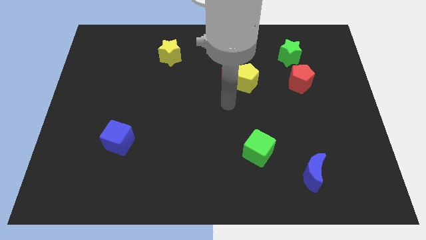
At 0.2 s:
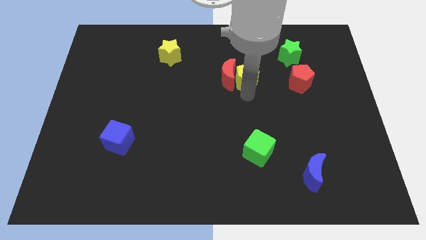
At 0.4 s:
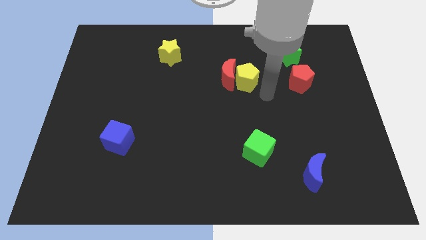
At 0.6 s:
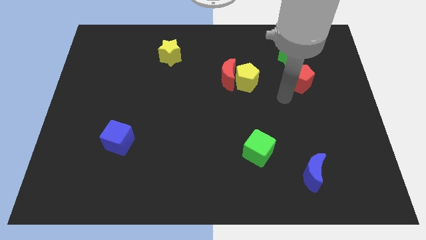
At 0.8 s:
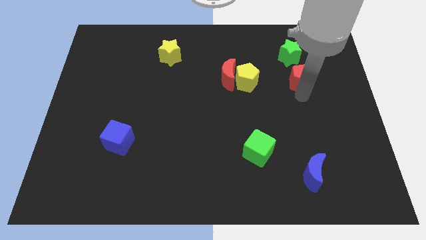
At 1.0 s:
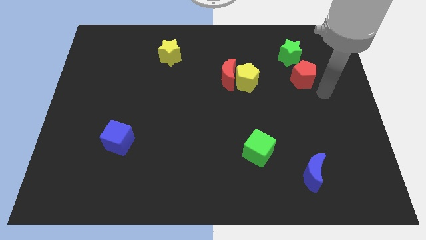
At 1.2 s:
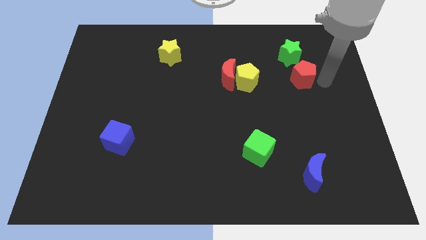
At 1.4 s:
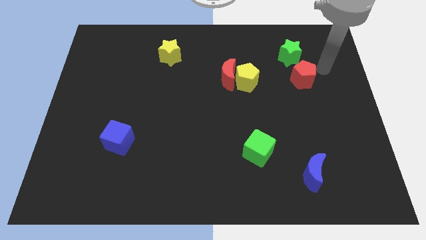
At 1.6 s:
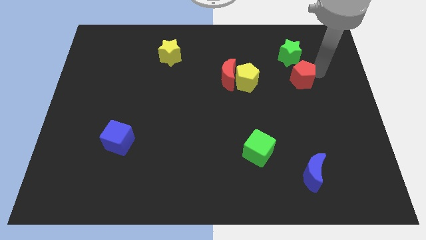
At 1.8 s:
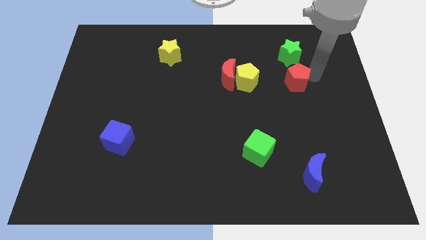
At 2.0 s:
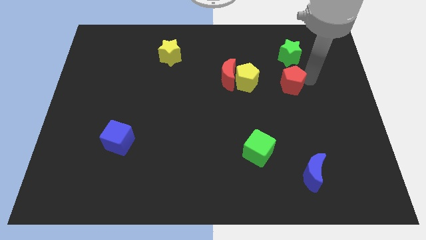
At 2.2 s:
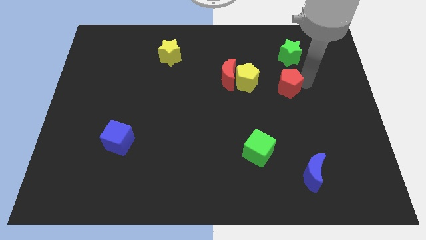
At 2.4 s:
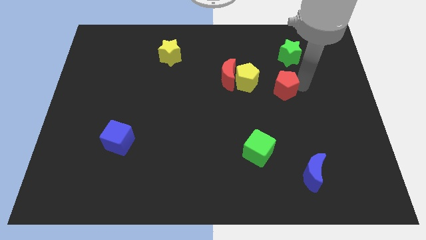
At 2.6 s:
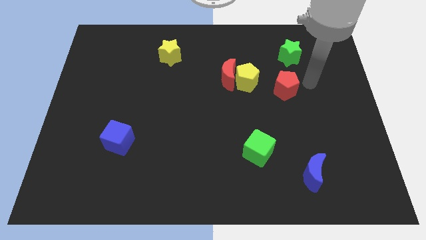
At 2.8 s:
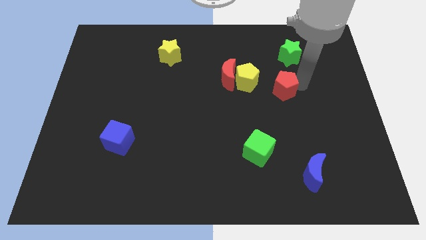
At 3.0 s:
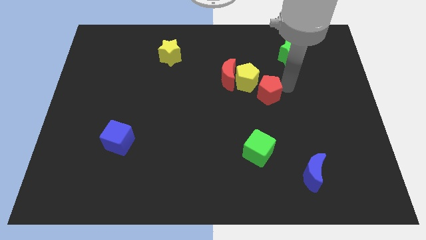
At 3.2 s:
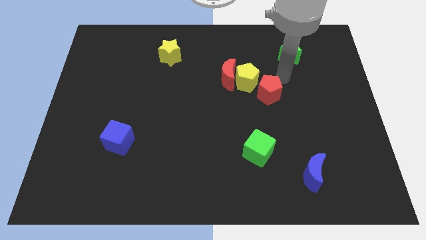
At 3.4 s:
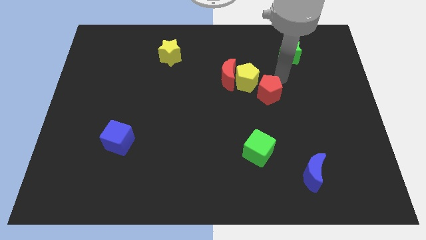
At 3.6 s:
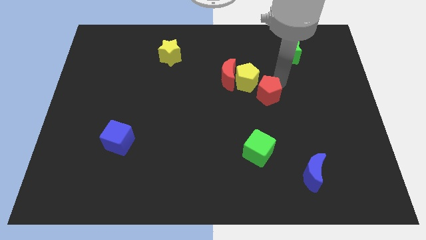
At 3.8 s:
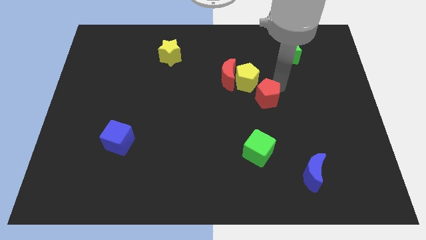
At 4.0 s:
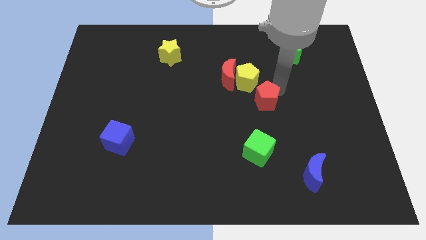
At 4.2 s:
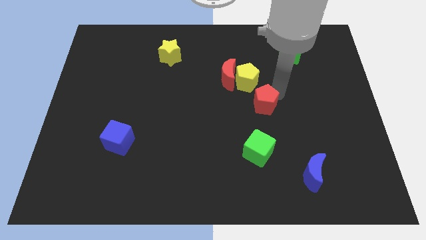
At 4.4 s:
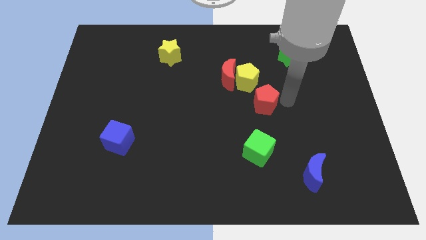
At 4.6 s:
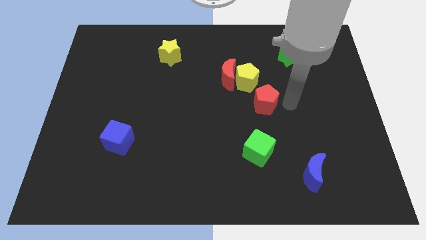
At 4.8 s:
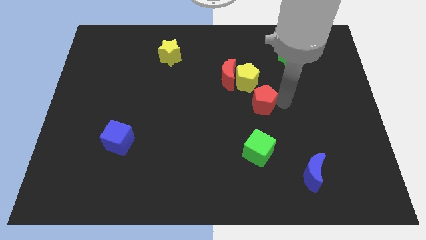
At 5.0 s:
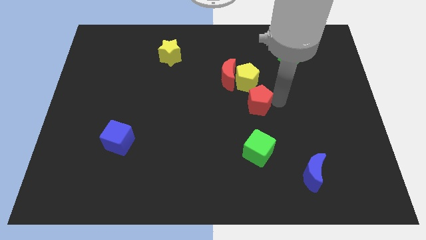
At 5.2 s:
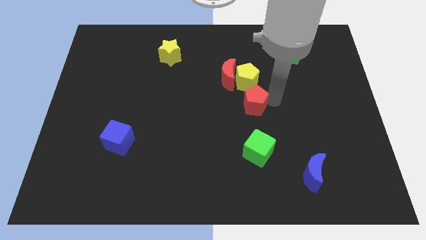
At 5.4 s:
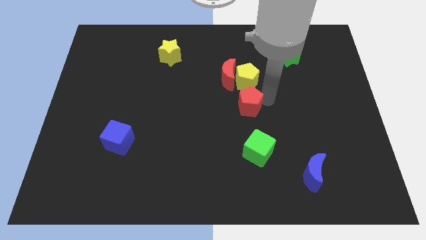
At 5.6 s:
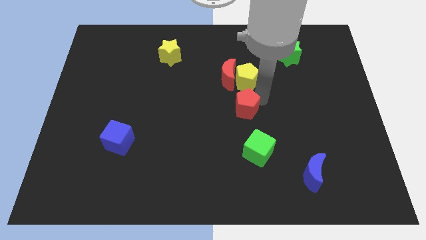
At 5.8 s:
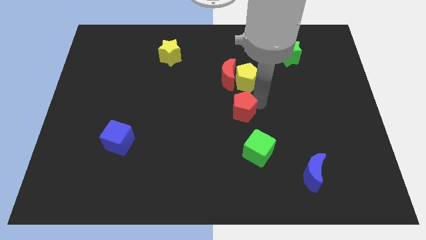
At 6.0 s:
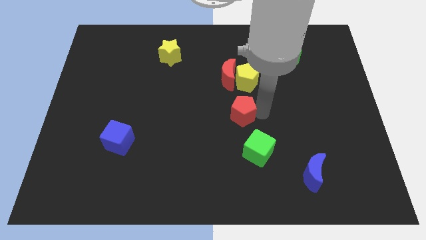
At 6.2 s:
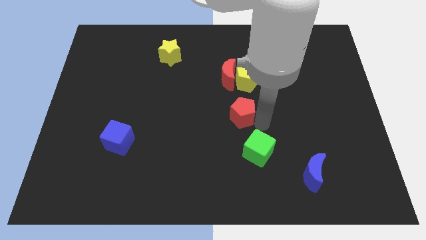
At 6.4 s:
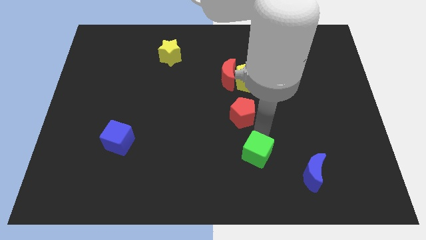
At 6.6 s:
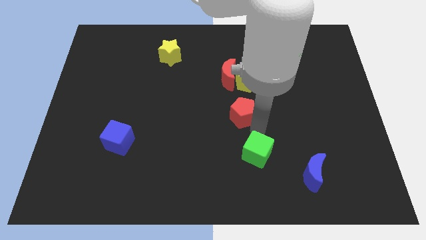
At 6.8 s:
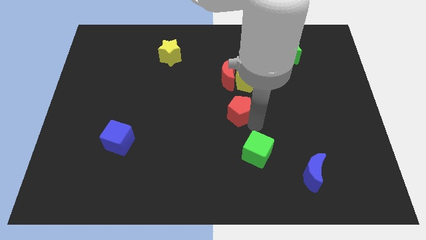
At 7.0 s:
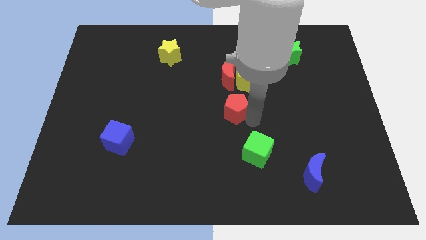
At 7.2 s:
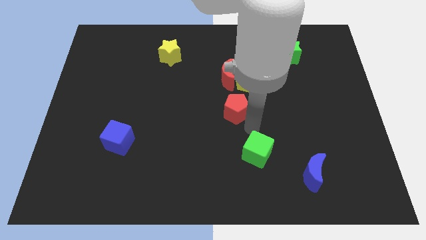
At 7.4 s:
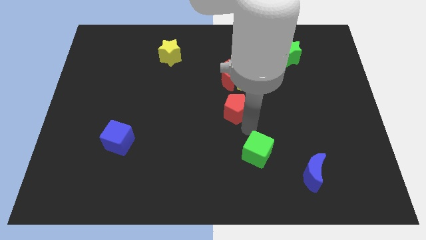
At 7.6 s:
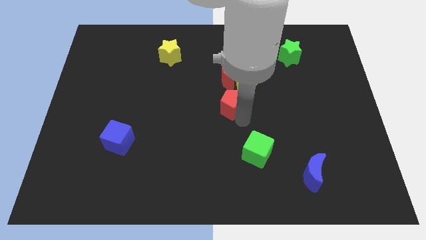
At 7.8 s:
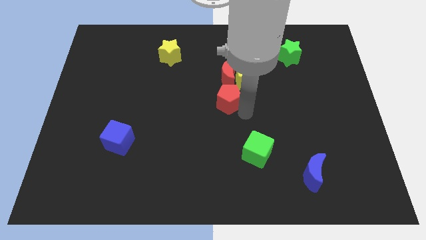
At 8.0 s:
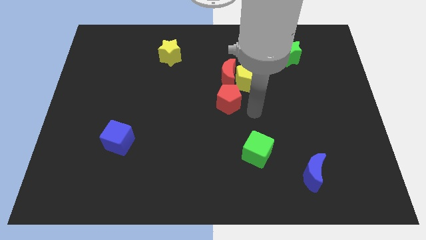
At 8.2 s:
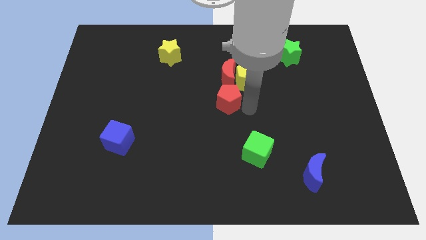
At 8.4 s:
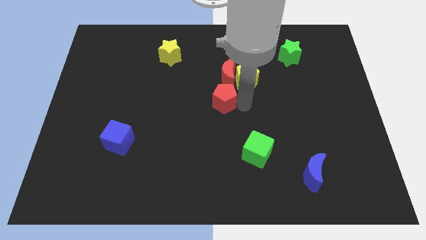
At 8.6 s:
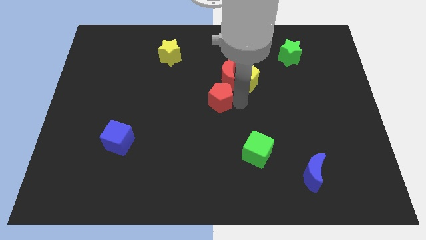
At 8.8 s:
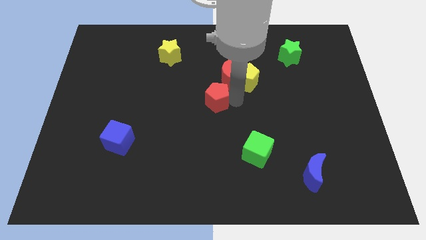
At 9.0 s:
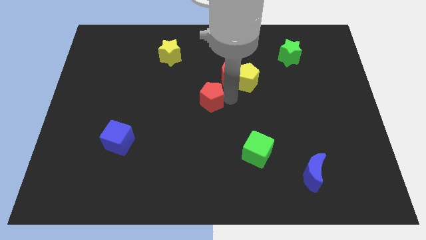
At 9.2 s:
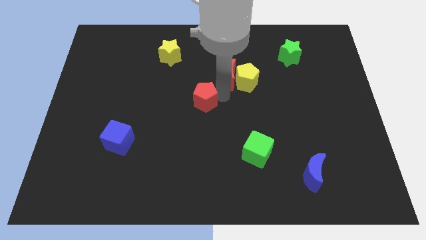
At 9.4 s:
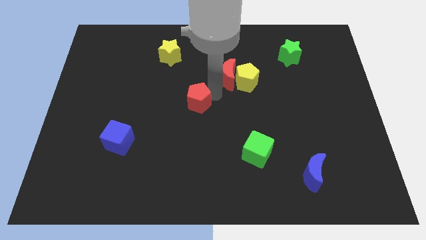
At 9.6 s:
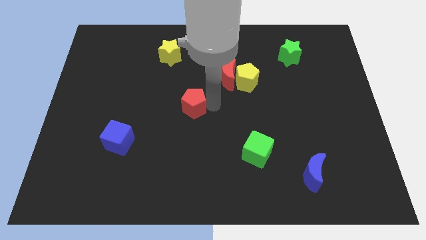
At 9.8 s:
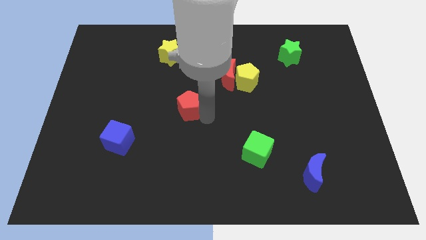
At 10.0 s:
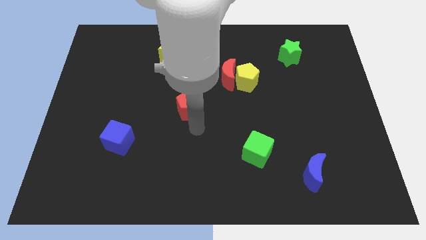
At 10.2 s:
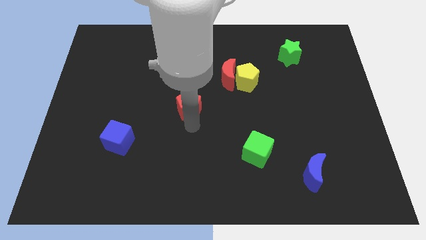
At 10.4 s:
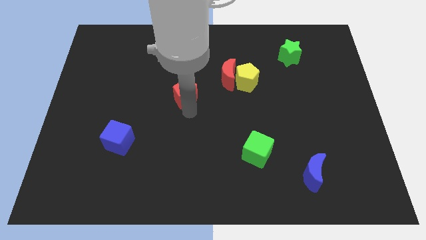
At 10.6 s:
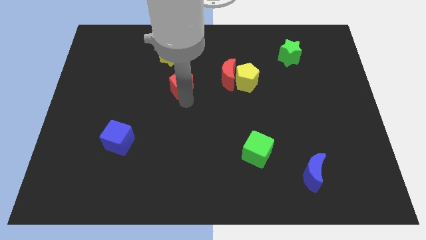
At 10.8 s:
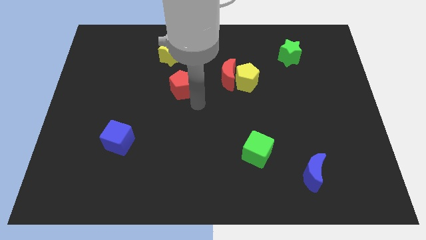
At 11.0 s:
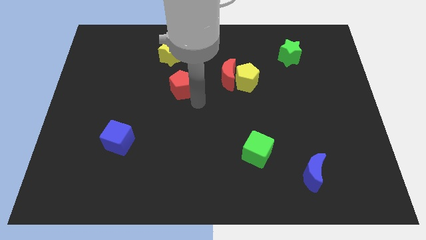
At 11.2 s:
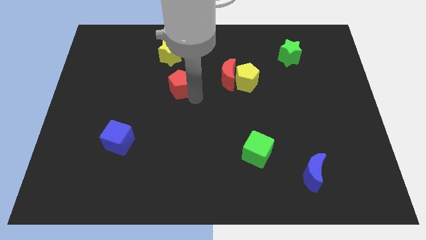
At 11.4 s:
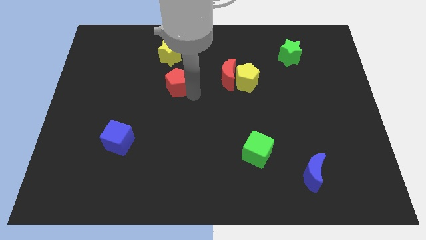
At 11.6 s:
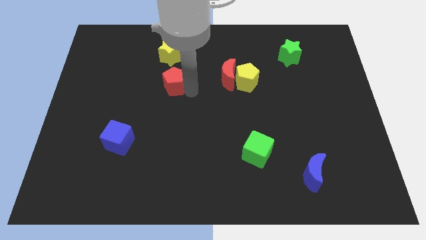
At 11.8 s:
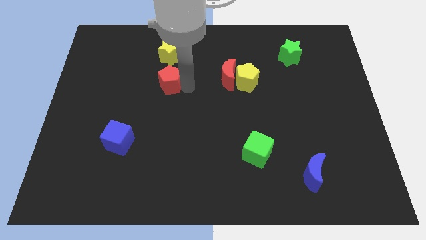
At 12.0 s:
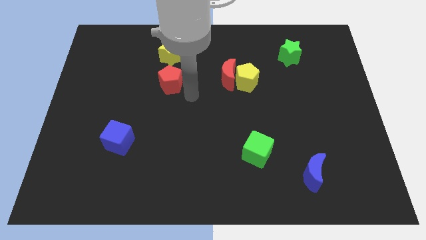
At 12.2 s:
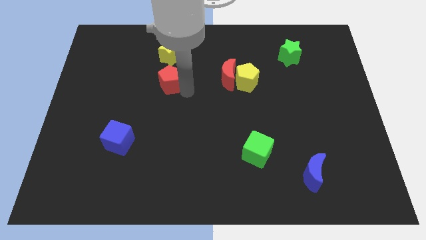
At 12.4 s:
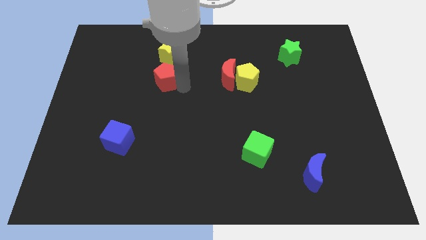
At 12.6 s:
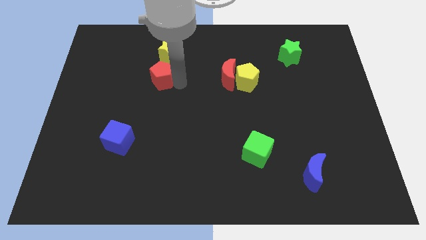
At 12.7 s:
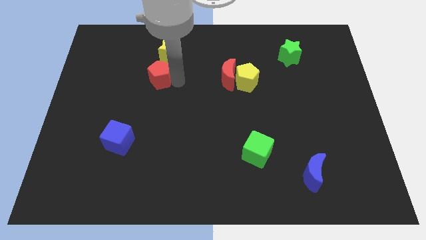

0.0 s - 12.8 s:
slide the red pentagon to the bottom left of the yellow star

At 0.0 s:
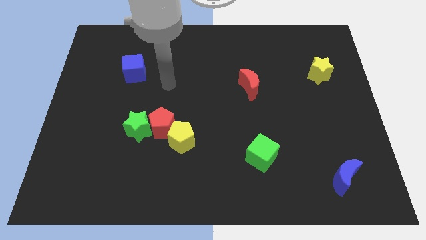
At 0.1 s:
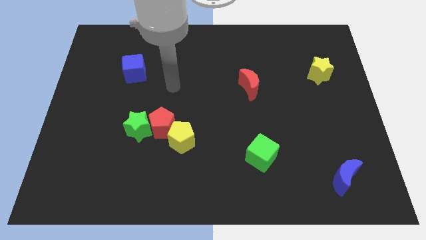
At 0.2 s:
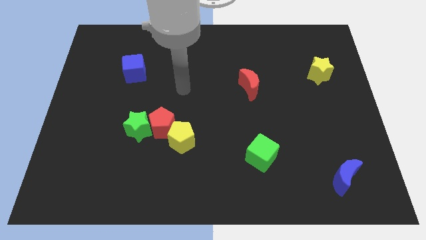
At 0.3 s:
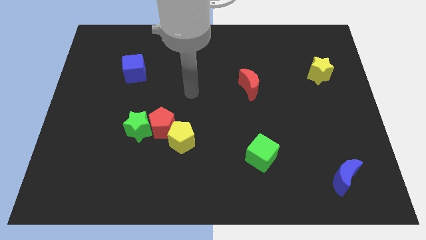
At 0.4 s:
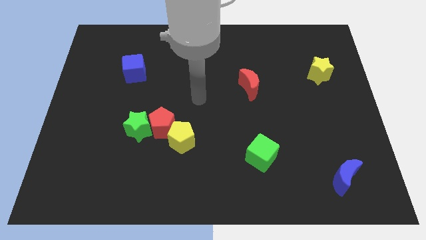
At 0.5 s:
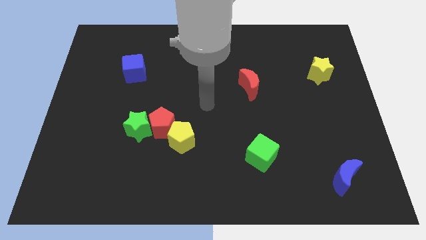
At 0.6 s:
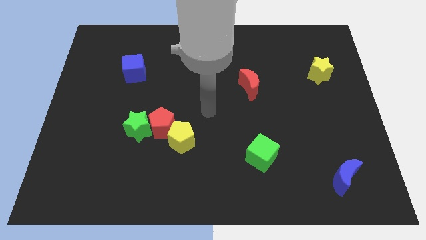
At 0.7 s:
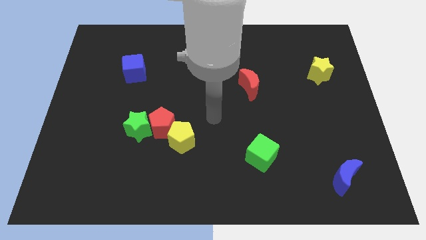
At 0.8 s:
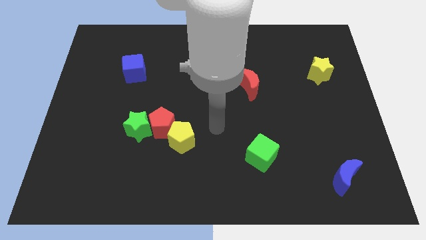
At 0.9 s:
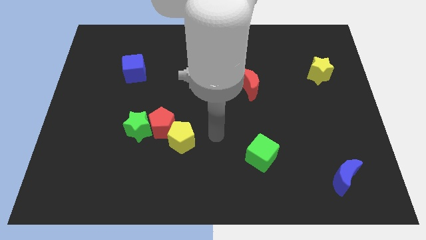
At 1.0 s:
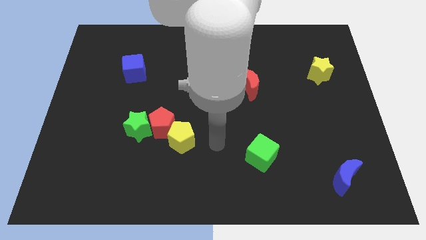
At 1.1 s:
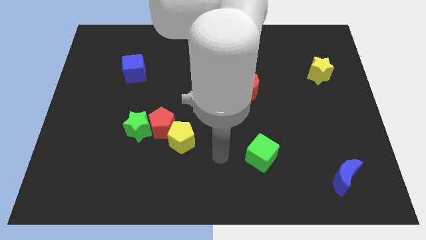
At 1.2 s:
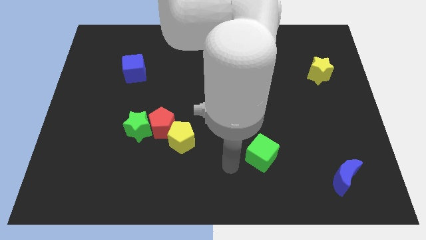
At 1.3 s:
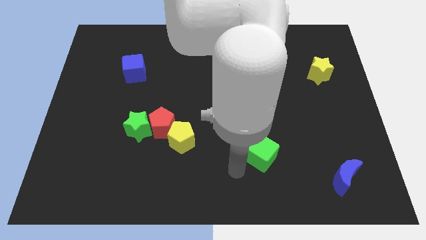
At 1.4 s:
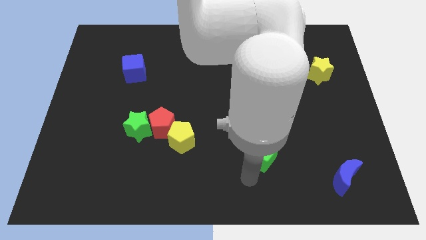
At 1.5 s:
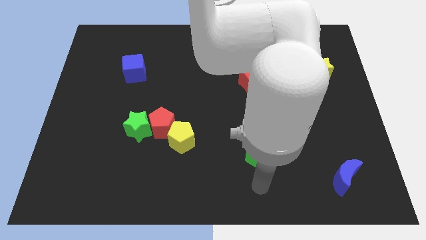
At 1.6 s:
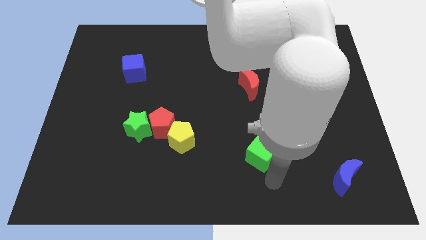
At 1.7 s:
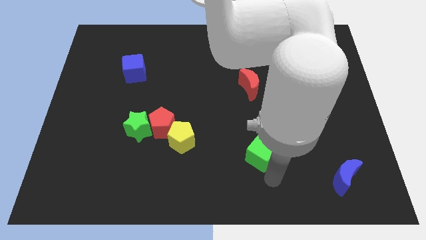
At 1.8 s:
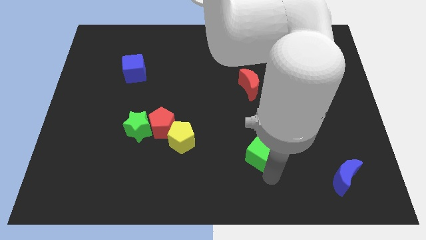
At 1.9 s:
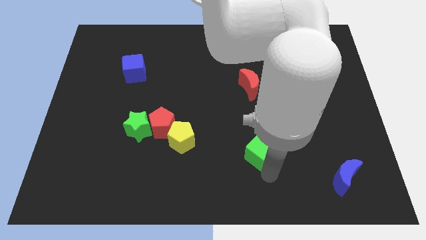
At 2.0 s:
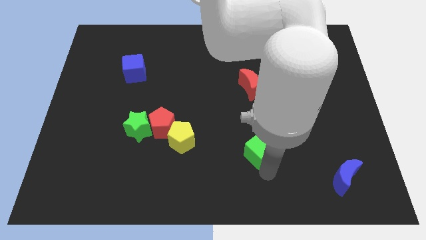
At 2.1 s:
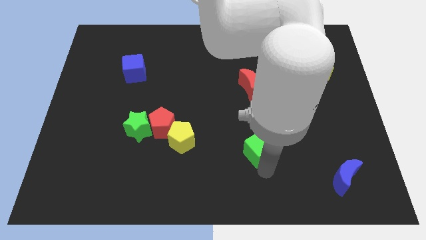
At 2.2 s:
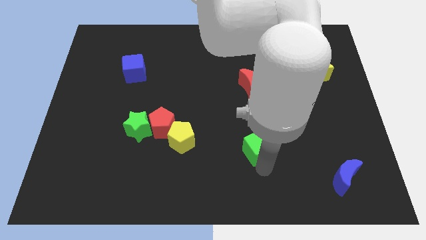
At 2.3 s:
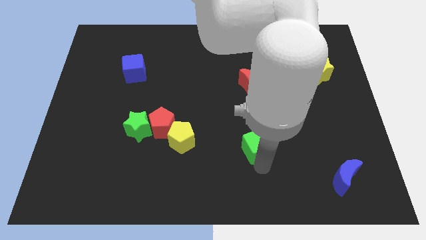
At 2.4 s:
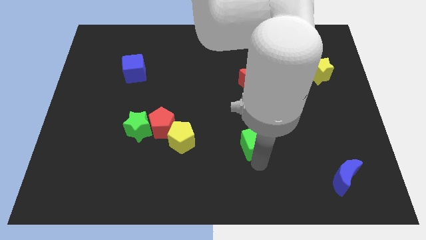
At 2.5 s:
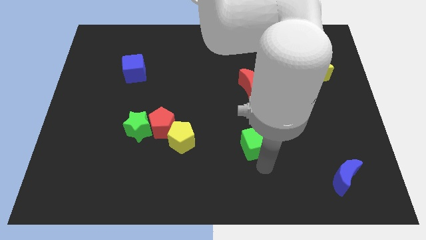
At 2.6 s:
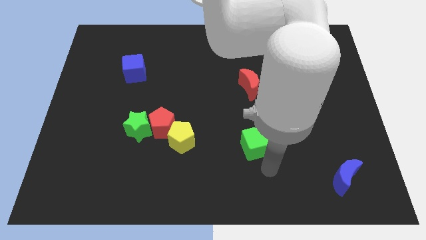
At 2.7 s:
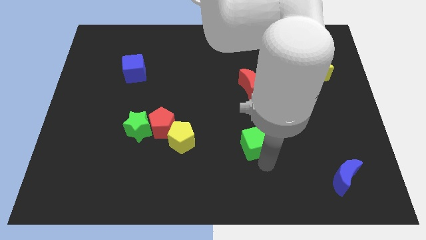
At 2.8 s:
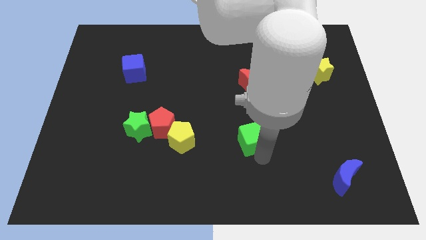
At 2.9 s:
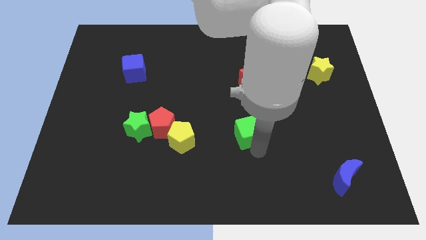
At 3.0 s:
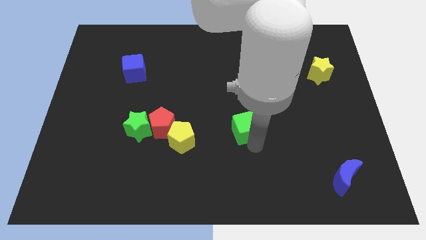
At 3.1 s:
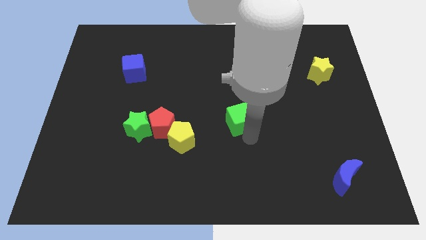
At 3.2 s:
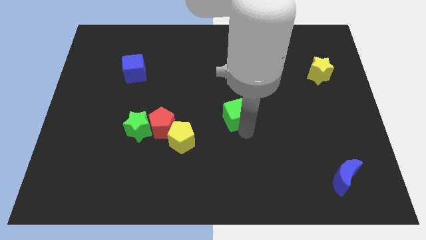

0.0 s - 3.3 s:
slide the green cube to the bottom left side of the red moon
